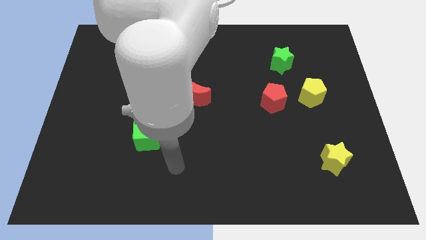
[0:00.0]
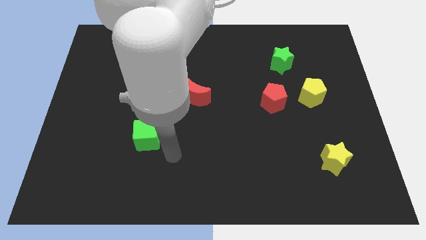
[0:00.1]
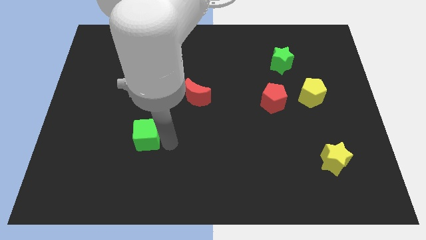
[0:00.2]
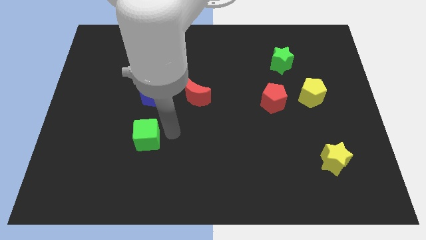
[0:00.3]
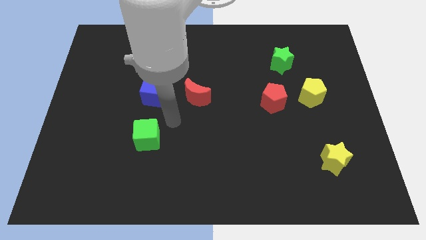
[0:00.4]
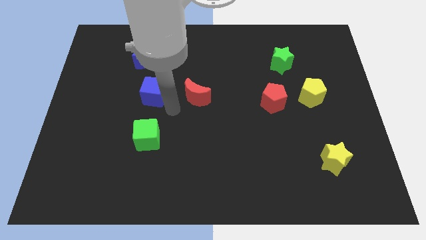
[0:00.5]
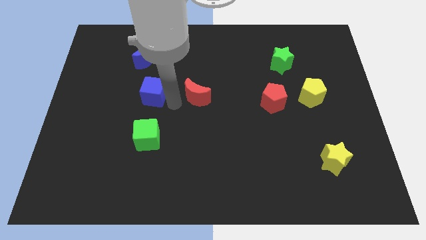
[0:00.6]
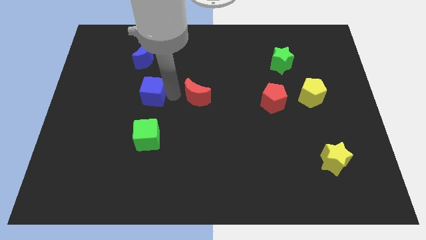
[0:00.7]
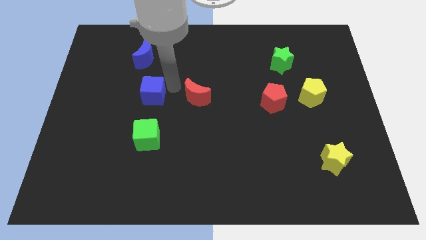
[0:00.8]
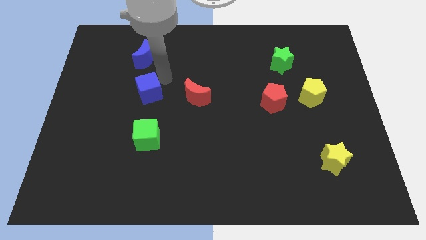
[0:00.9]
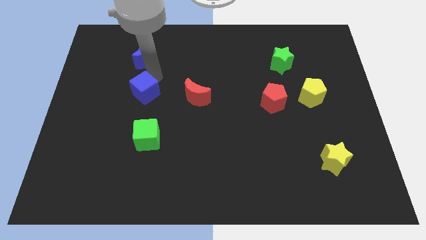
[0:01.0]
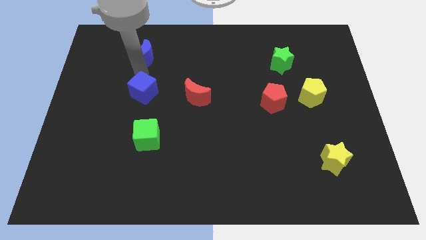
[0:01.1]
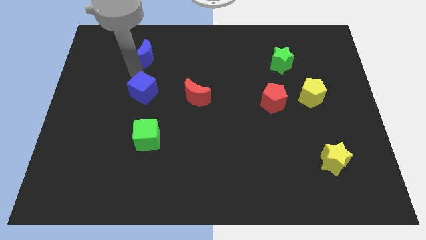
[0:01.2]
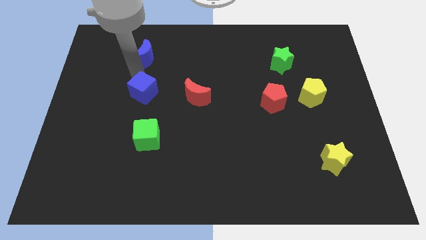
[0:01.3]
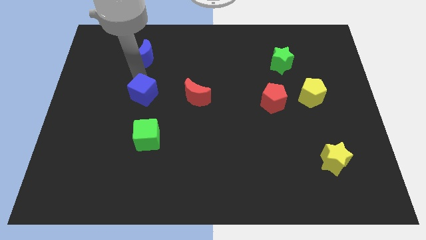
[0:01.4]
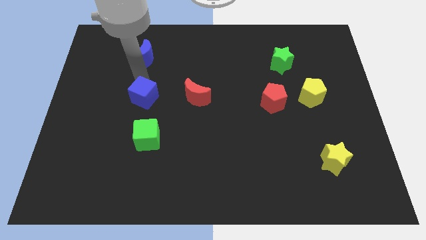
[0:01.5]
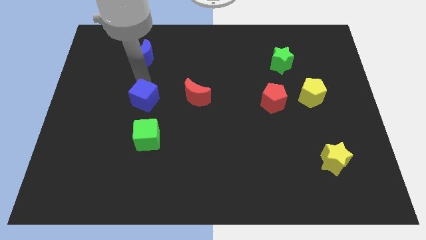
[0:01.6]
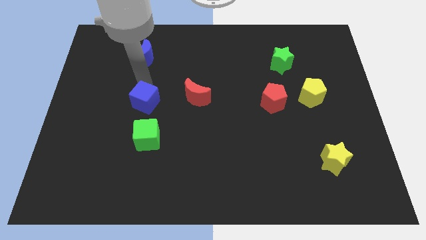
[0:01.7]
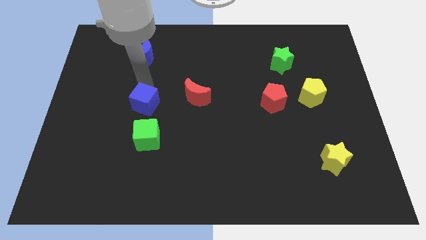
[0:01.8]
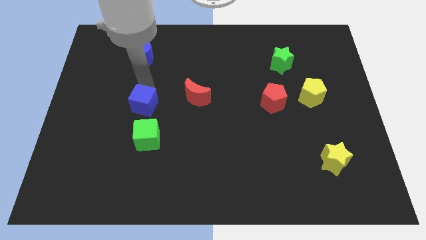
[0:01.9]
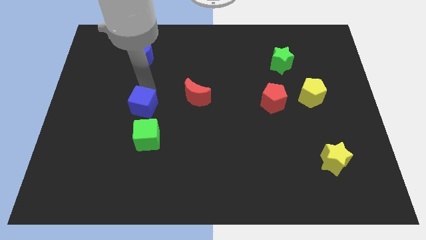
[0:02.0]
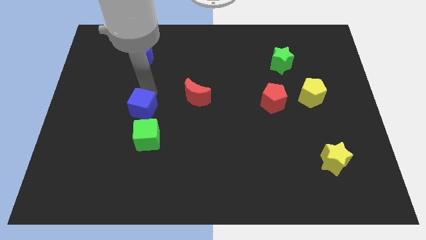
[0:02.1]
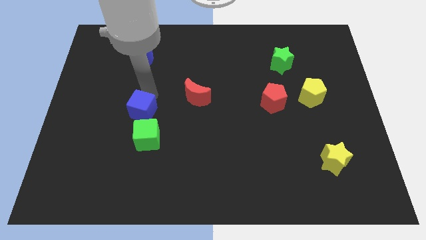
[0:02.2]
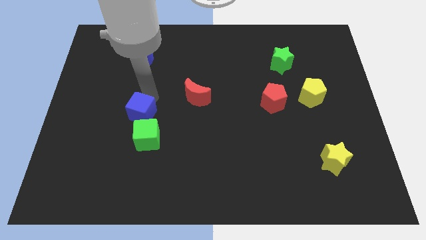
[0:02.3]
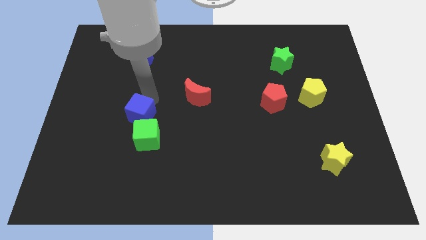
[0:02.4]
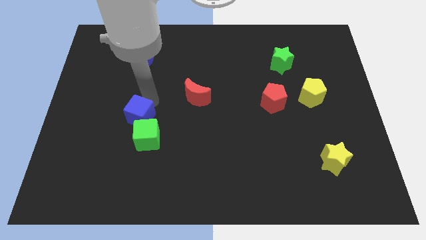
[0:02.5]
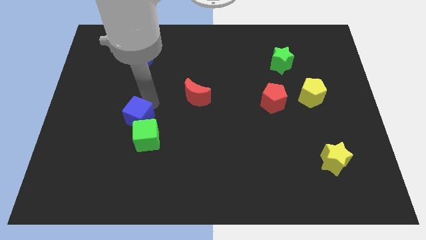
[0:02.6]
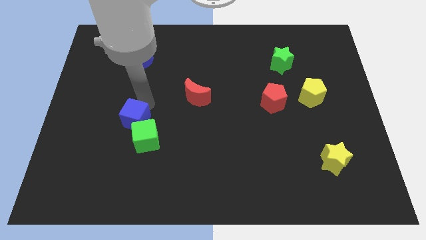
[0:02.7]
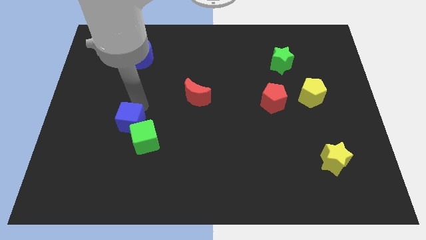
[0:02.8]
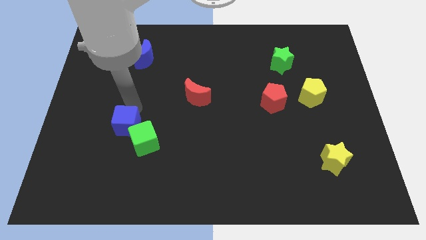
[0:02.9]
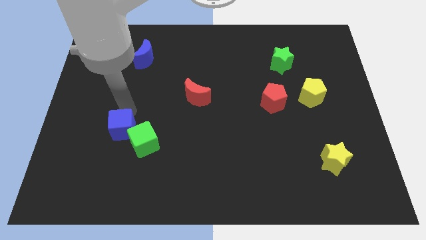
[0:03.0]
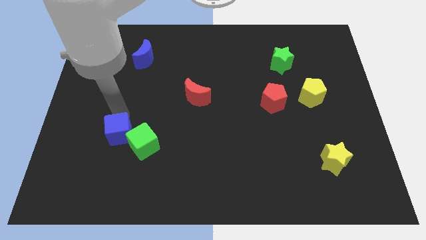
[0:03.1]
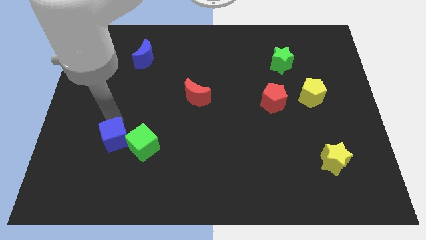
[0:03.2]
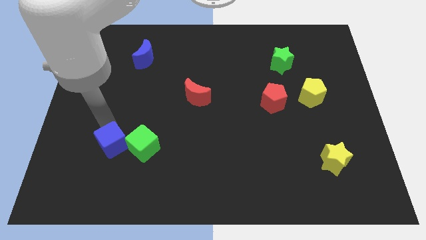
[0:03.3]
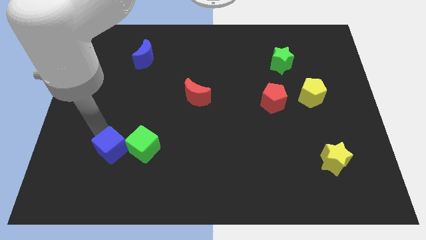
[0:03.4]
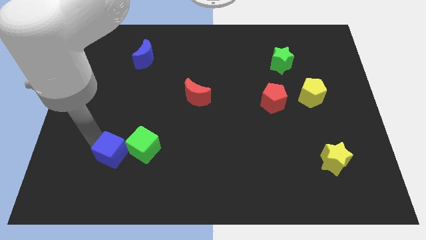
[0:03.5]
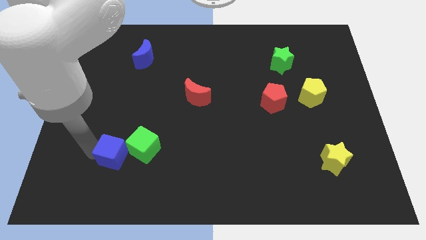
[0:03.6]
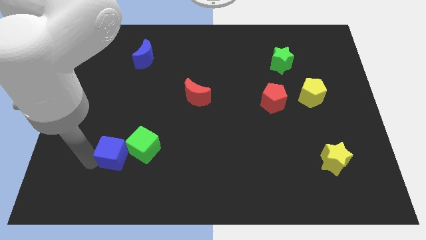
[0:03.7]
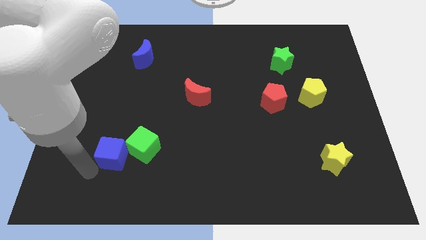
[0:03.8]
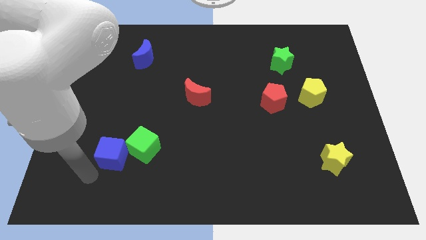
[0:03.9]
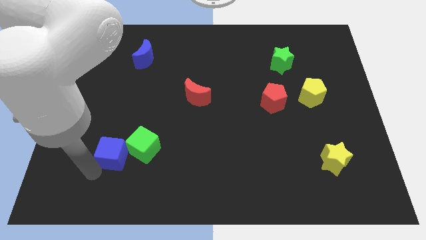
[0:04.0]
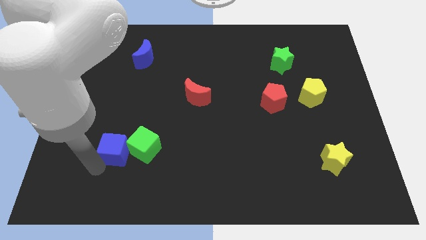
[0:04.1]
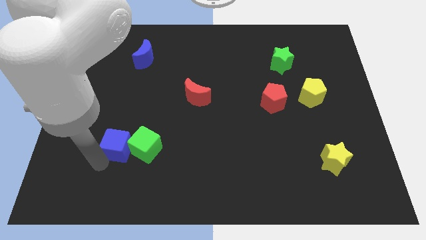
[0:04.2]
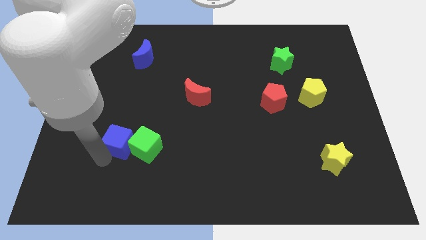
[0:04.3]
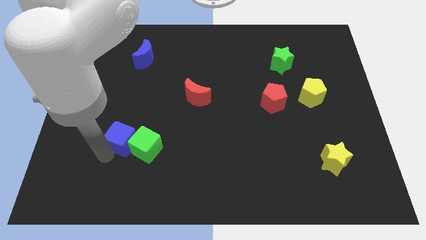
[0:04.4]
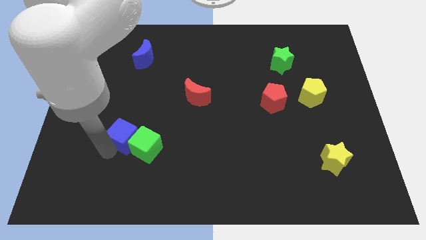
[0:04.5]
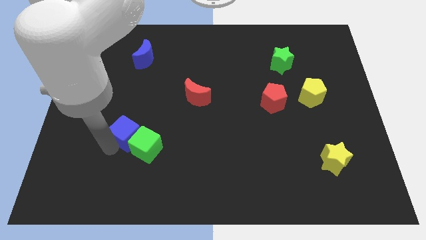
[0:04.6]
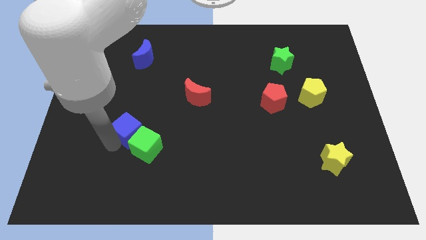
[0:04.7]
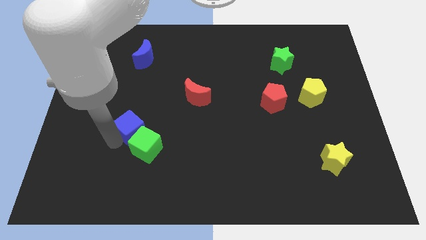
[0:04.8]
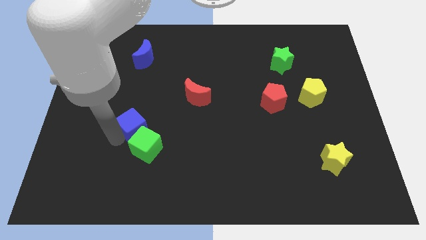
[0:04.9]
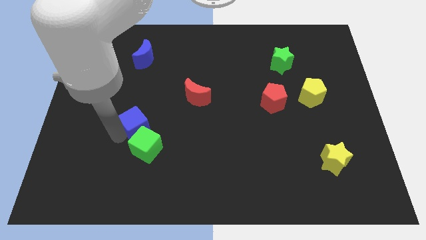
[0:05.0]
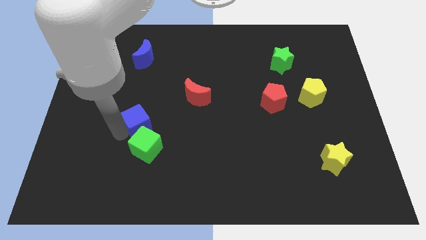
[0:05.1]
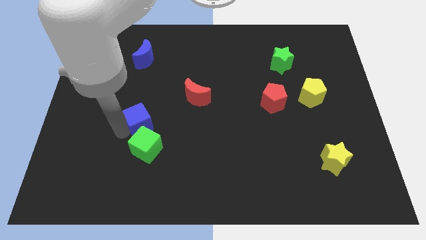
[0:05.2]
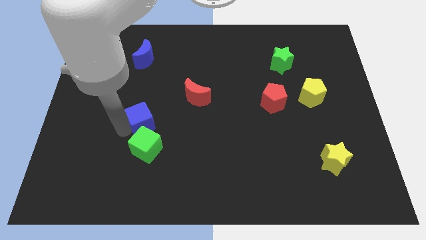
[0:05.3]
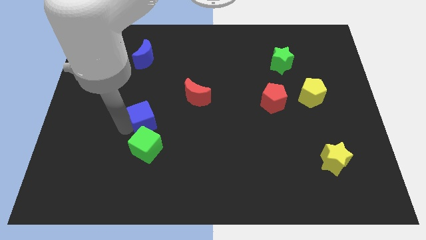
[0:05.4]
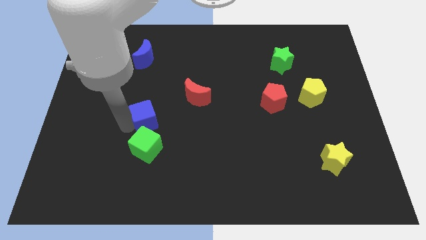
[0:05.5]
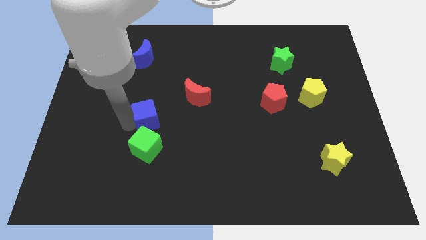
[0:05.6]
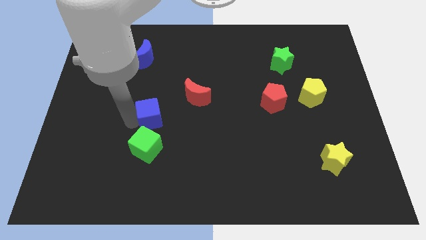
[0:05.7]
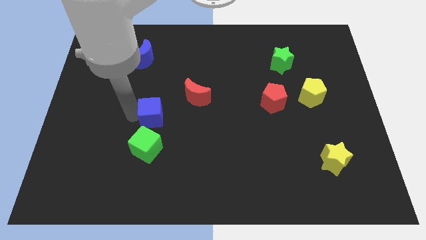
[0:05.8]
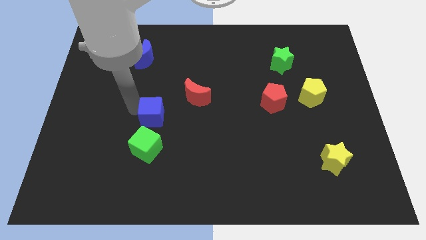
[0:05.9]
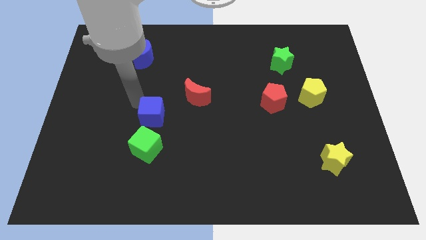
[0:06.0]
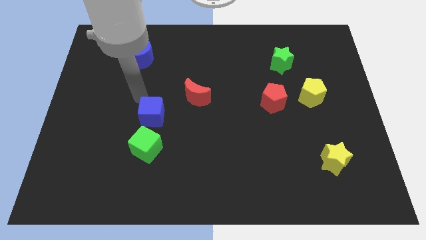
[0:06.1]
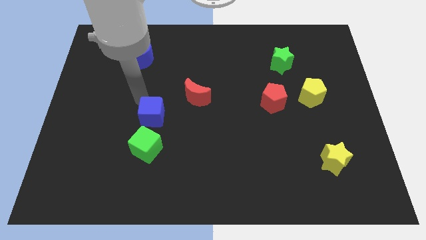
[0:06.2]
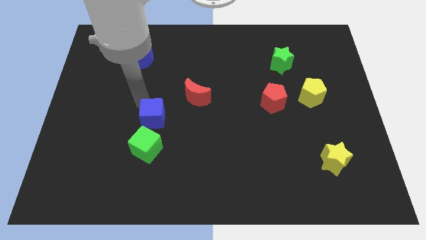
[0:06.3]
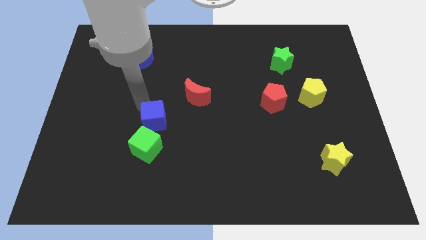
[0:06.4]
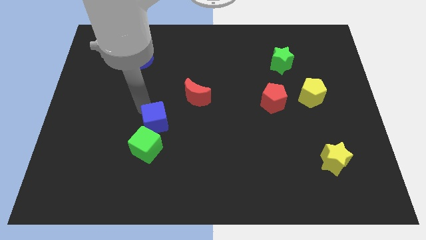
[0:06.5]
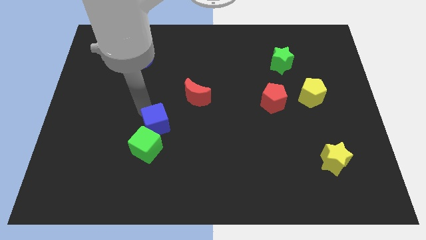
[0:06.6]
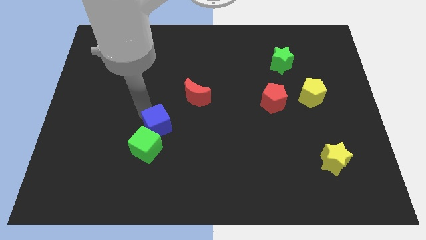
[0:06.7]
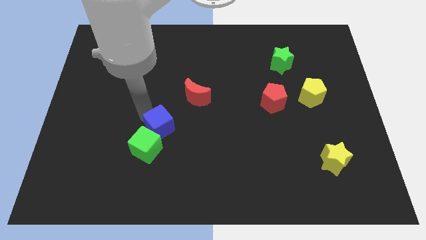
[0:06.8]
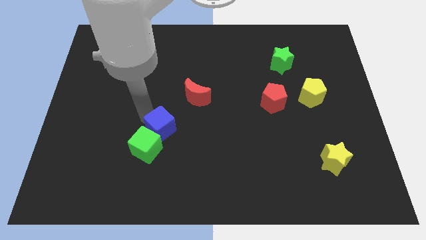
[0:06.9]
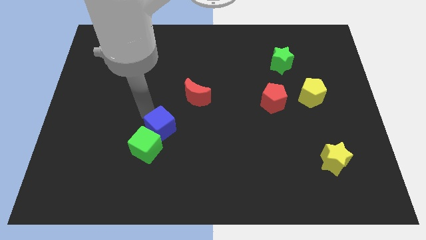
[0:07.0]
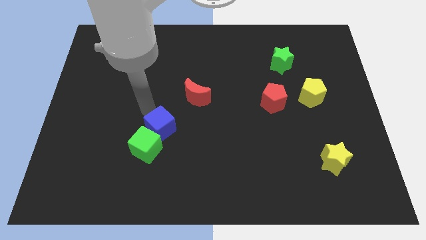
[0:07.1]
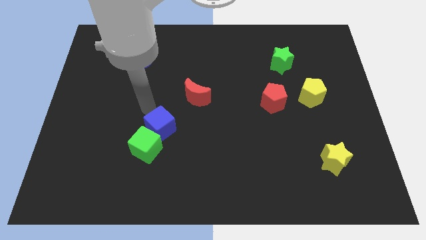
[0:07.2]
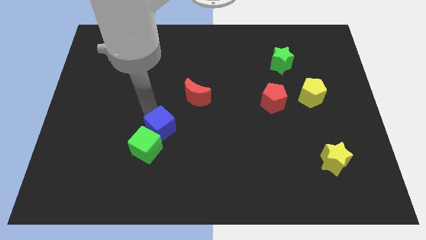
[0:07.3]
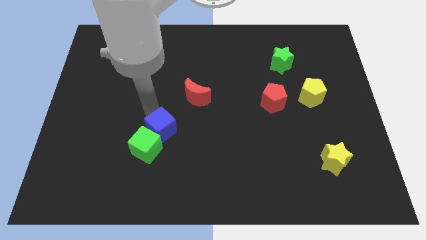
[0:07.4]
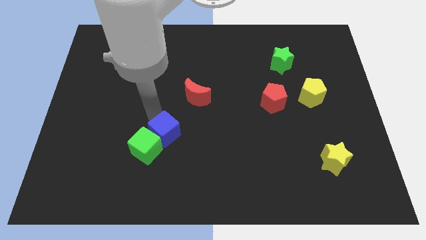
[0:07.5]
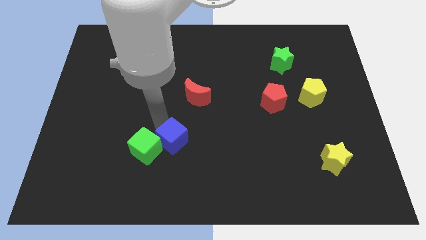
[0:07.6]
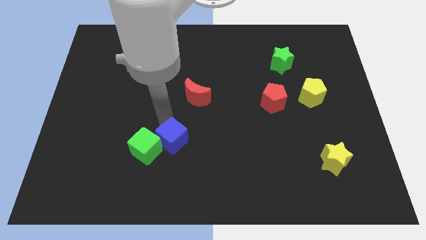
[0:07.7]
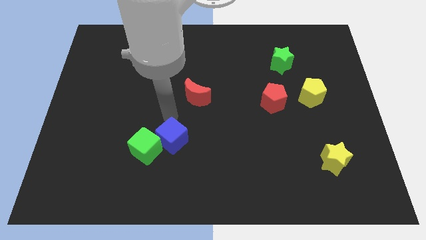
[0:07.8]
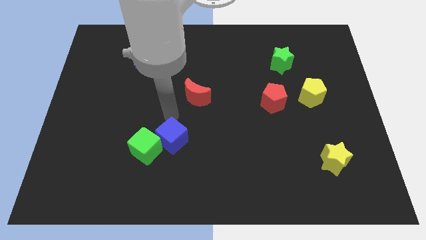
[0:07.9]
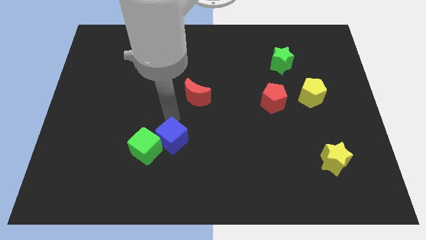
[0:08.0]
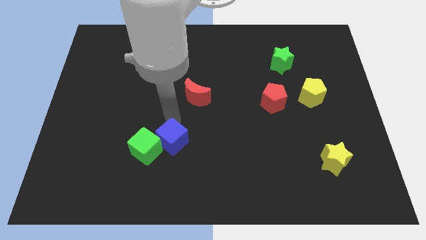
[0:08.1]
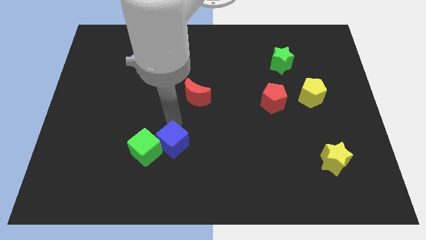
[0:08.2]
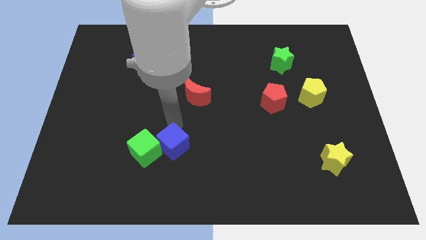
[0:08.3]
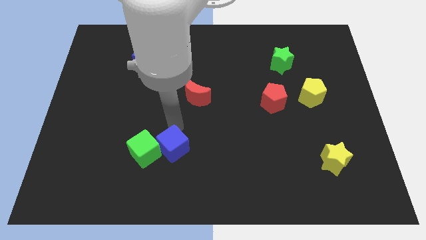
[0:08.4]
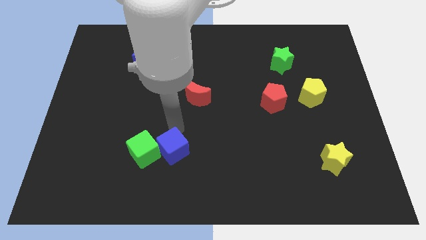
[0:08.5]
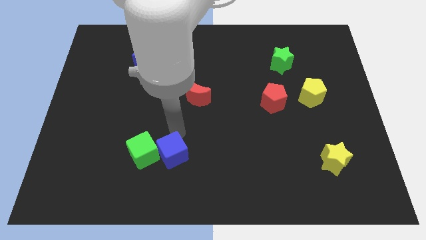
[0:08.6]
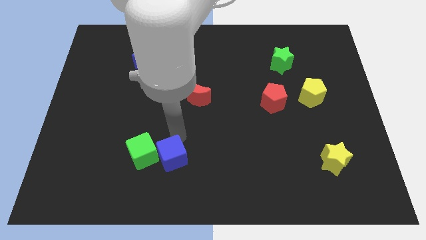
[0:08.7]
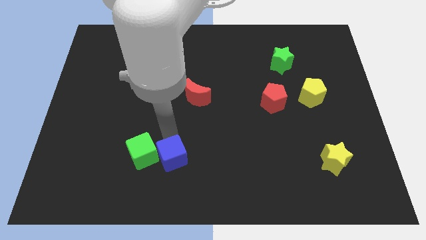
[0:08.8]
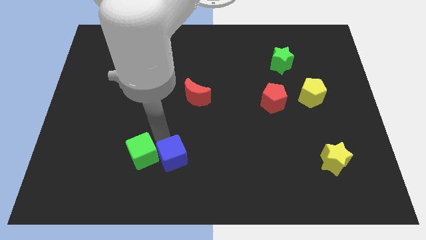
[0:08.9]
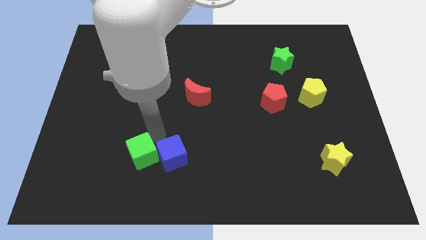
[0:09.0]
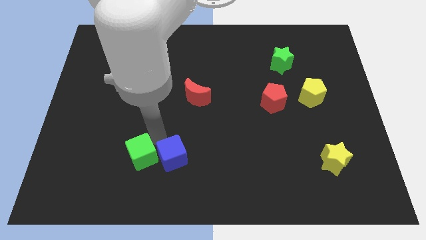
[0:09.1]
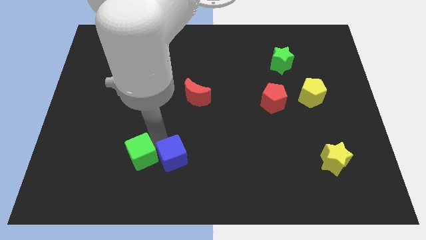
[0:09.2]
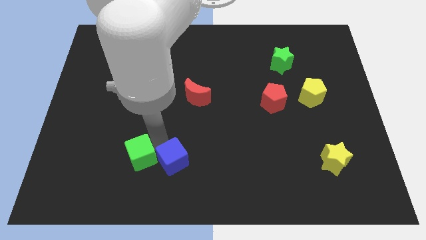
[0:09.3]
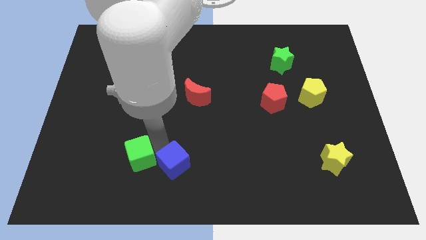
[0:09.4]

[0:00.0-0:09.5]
push the blue cube to the bottom
